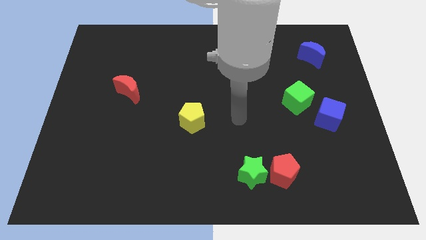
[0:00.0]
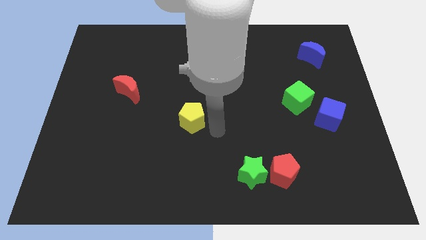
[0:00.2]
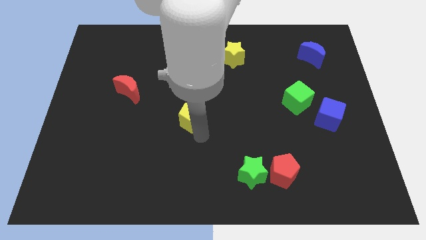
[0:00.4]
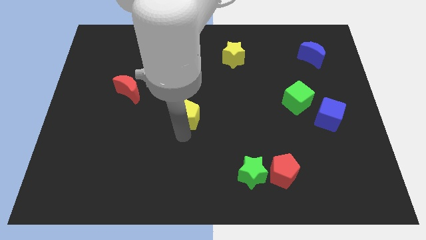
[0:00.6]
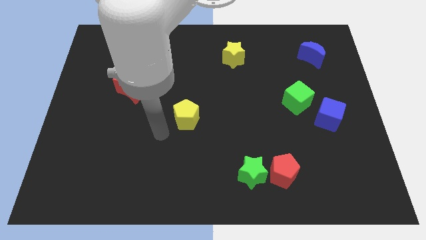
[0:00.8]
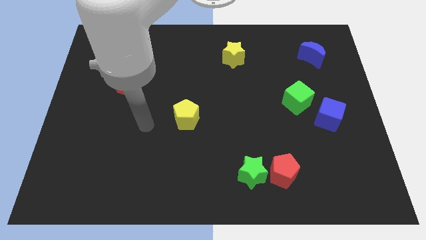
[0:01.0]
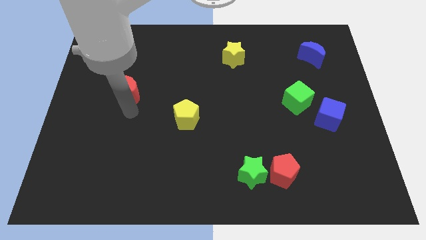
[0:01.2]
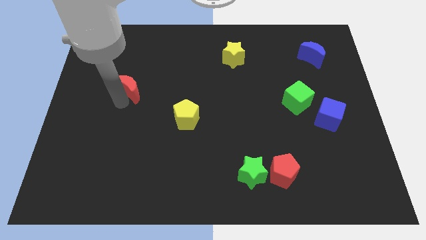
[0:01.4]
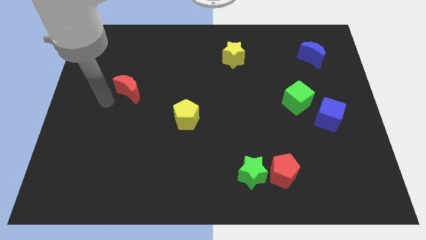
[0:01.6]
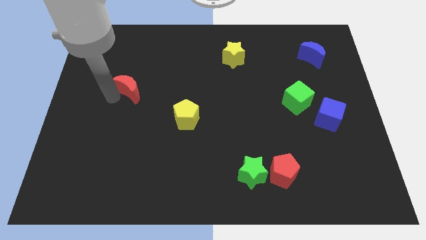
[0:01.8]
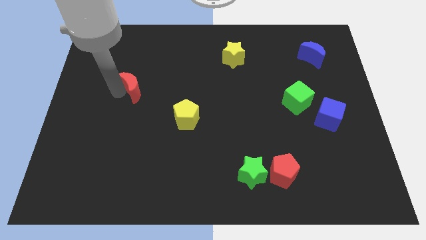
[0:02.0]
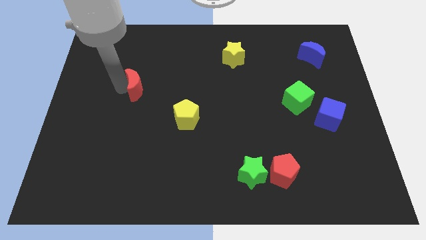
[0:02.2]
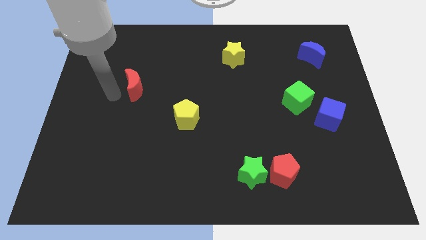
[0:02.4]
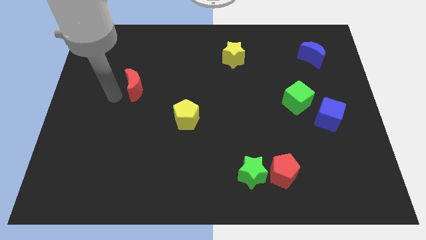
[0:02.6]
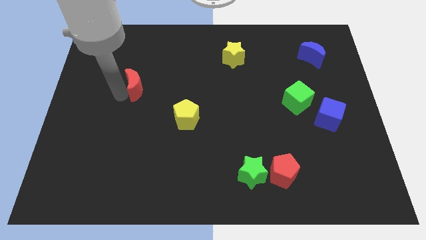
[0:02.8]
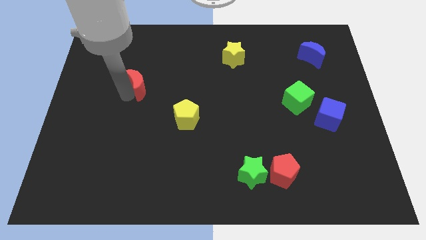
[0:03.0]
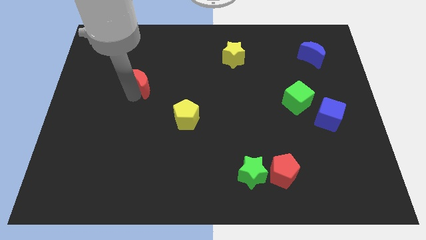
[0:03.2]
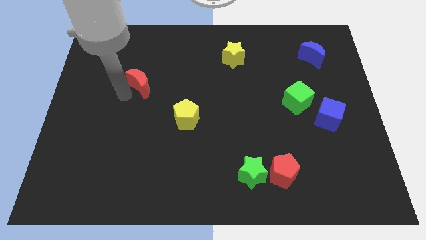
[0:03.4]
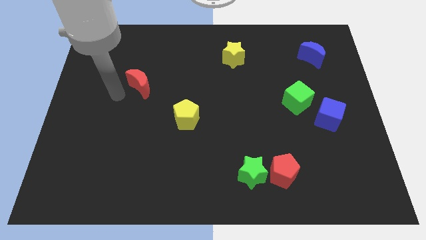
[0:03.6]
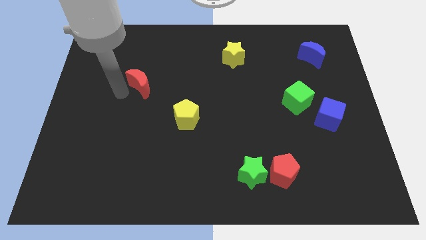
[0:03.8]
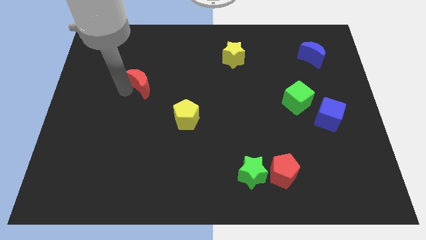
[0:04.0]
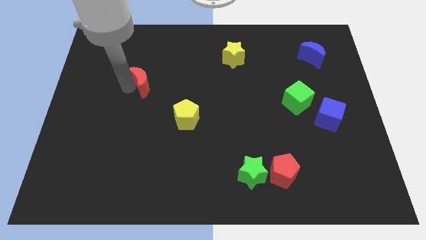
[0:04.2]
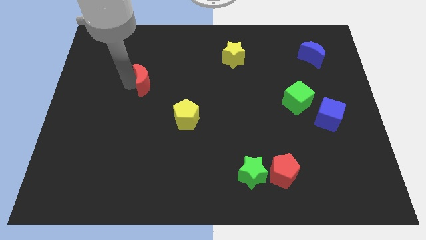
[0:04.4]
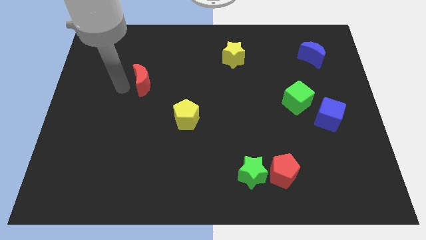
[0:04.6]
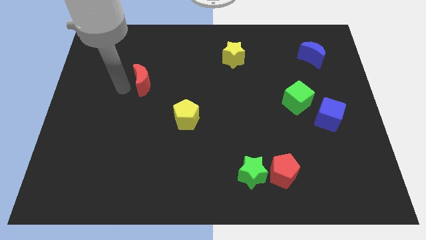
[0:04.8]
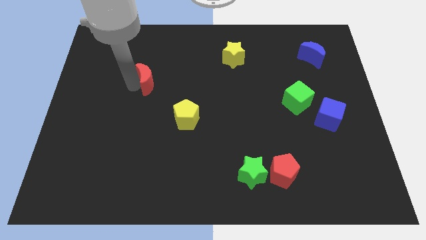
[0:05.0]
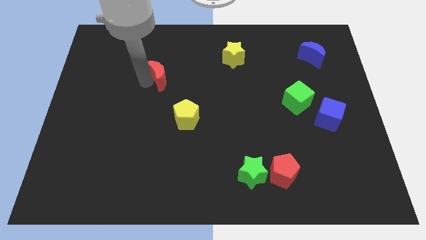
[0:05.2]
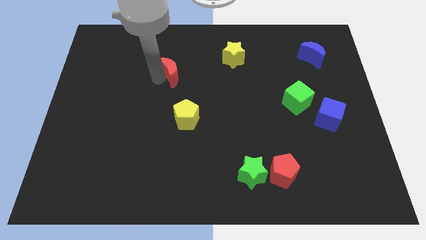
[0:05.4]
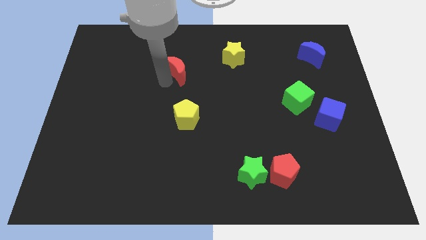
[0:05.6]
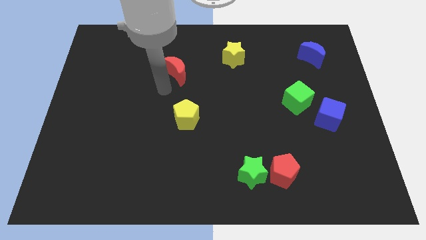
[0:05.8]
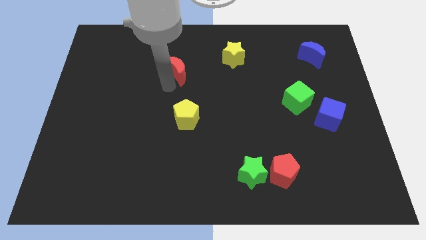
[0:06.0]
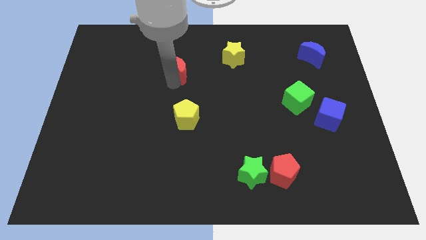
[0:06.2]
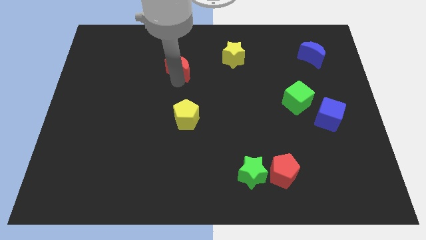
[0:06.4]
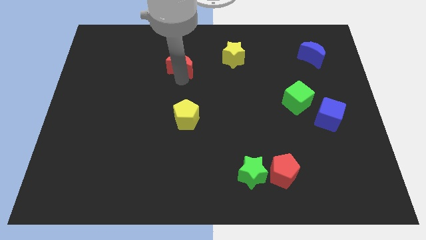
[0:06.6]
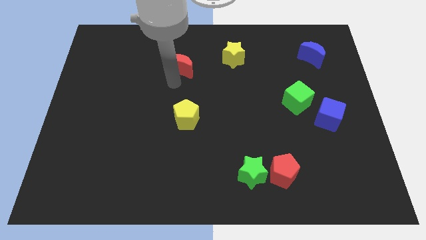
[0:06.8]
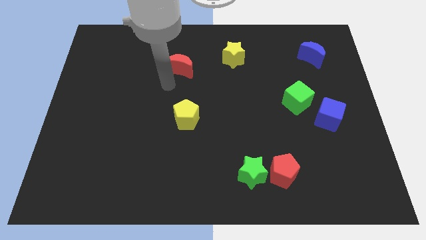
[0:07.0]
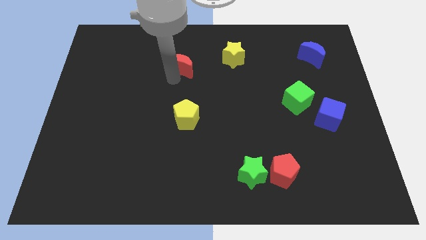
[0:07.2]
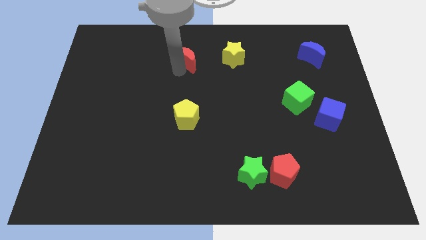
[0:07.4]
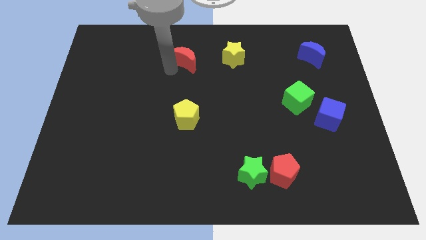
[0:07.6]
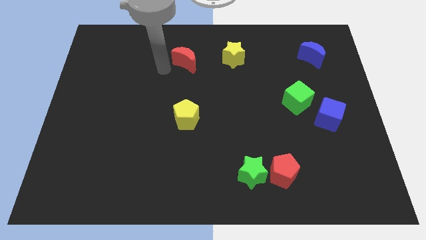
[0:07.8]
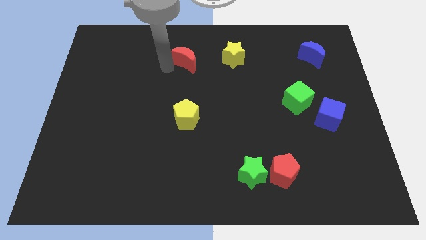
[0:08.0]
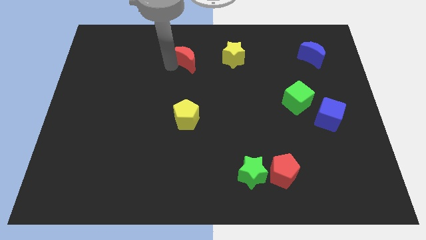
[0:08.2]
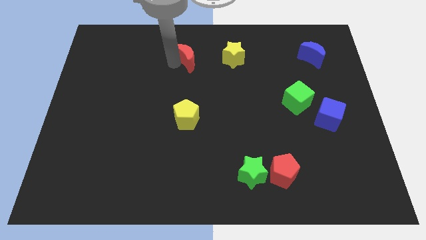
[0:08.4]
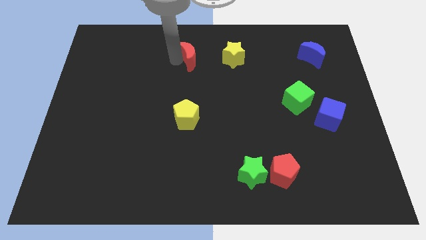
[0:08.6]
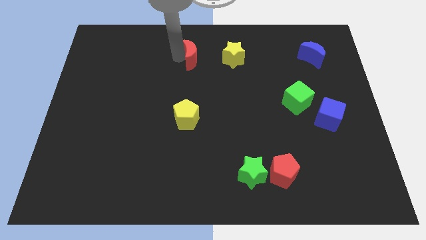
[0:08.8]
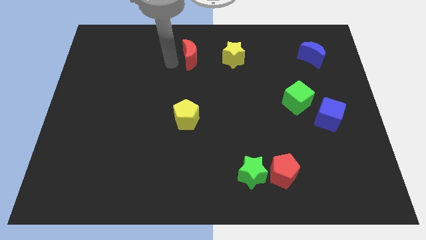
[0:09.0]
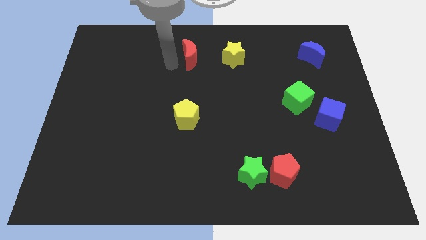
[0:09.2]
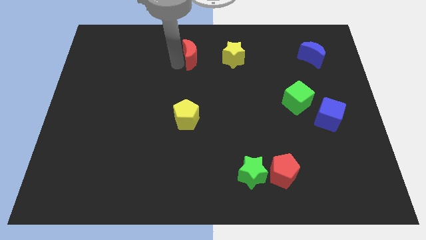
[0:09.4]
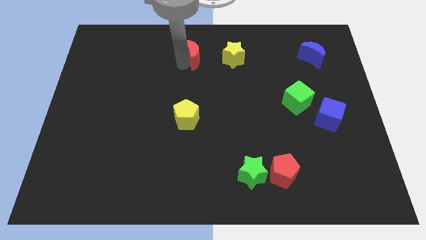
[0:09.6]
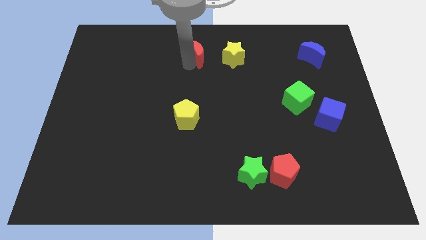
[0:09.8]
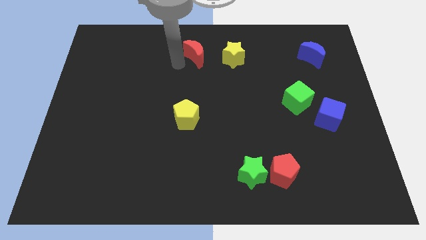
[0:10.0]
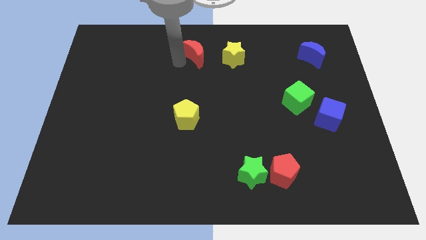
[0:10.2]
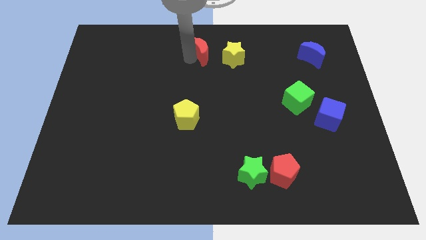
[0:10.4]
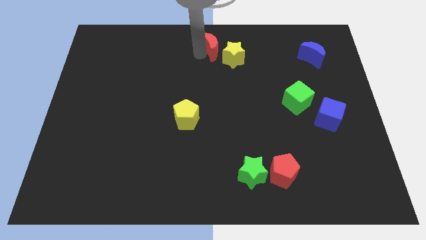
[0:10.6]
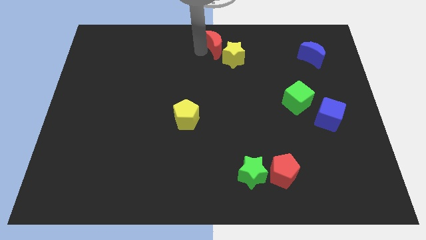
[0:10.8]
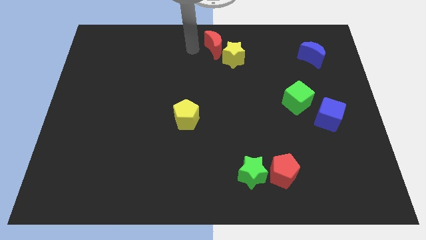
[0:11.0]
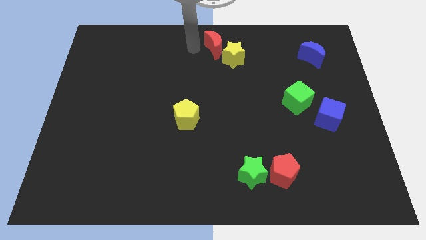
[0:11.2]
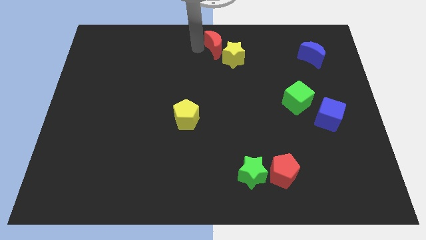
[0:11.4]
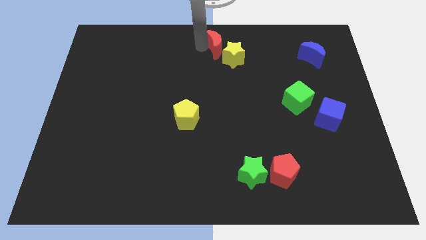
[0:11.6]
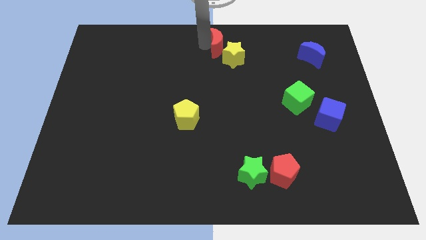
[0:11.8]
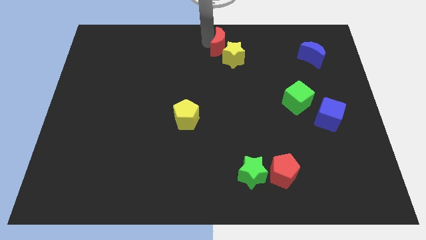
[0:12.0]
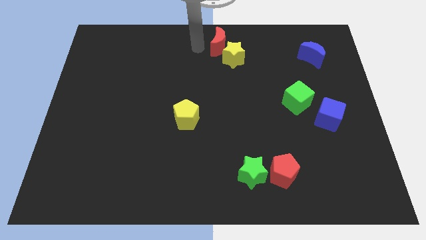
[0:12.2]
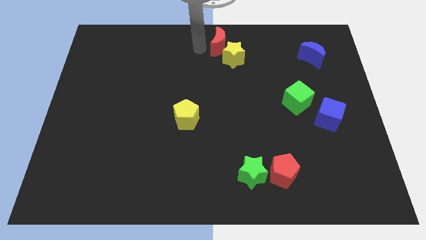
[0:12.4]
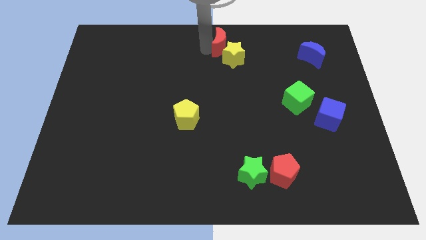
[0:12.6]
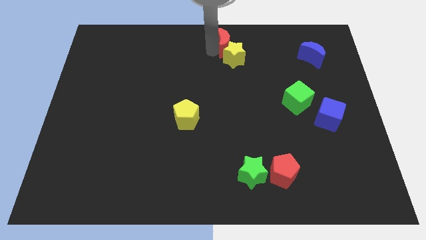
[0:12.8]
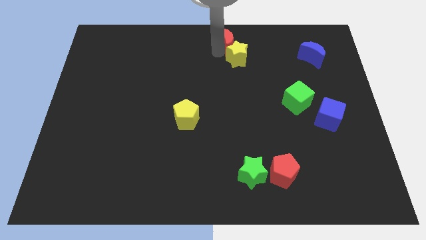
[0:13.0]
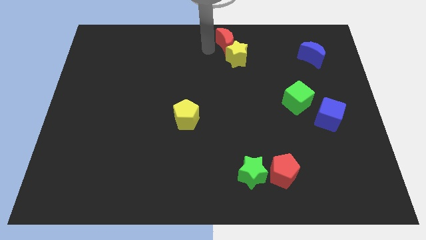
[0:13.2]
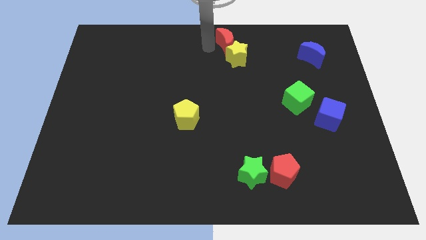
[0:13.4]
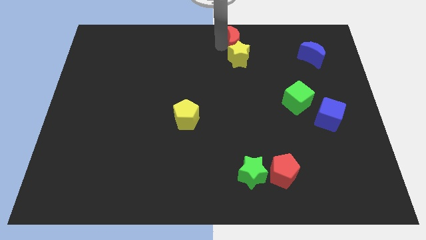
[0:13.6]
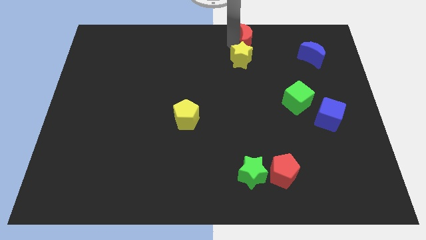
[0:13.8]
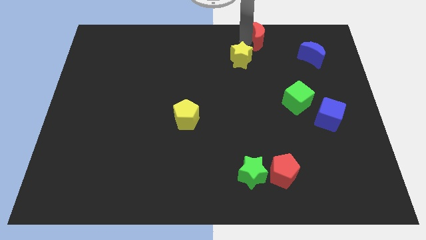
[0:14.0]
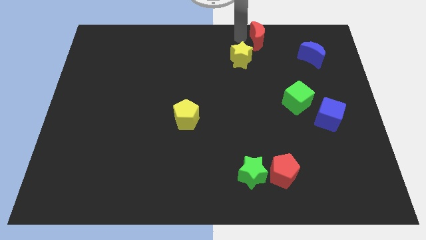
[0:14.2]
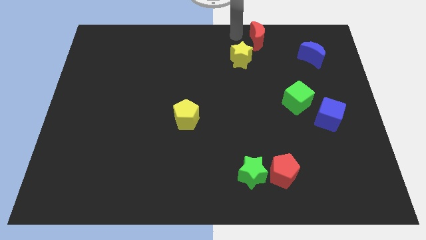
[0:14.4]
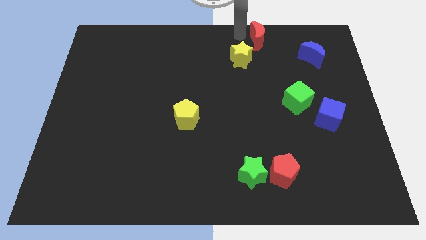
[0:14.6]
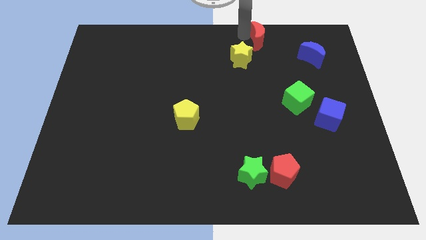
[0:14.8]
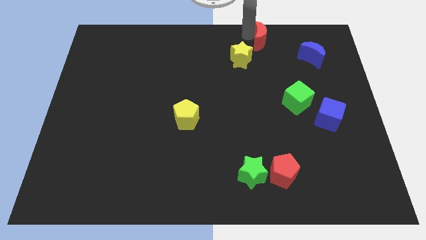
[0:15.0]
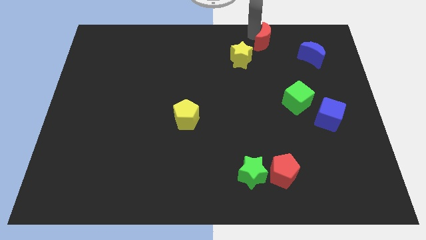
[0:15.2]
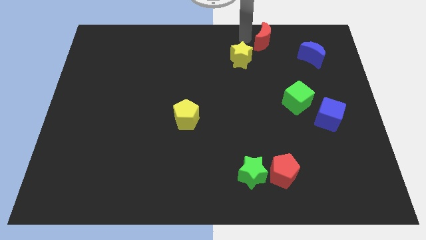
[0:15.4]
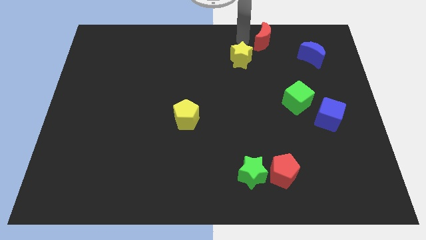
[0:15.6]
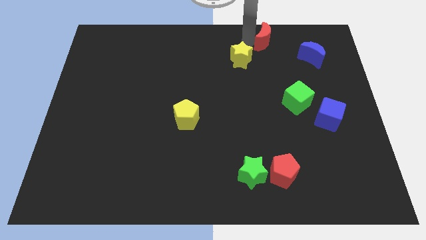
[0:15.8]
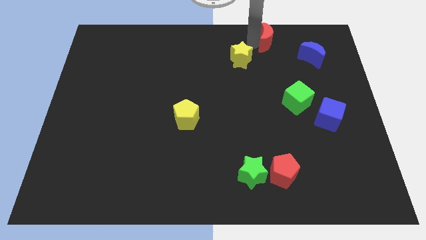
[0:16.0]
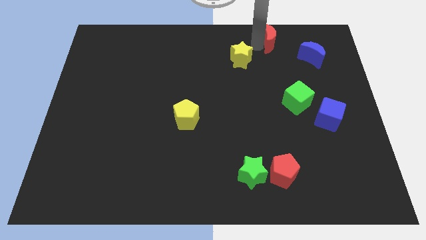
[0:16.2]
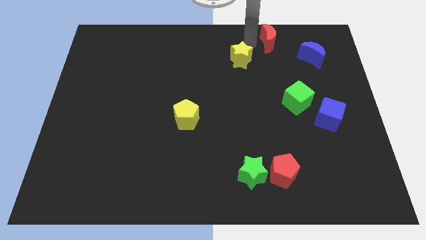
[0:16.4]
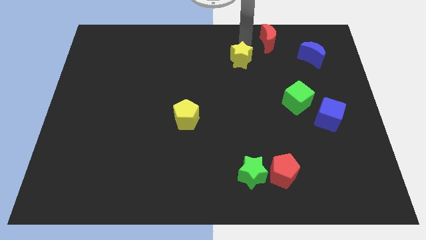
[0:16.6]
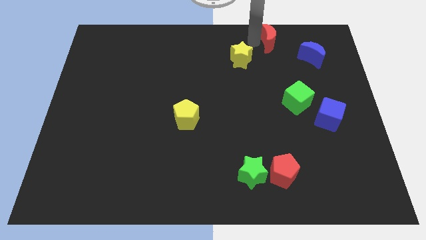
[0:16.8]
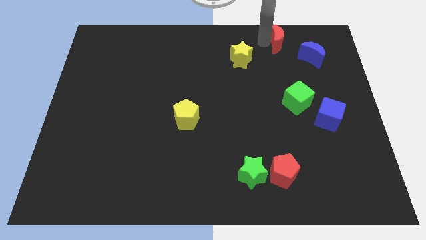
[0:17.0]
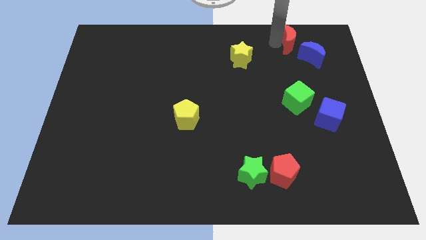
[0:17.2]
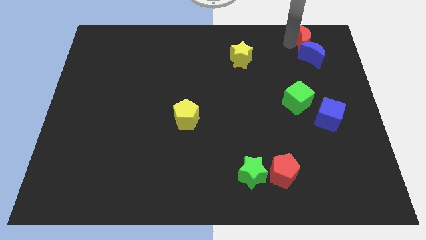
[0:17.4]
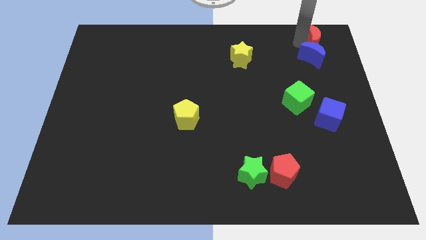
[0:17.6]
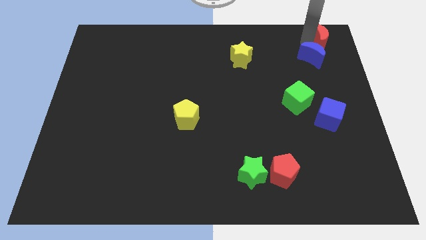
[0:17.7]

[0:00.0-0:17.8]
push the red moon to the top right corner
